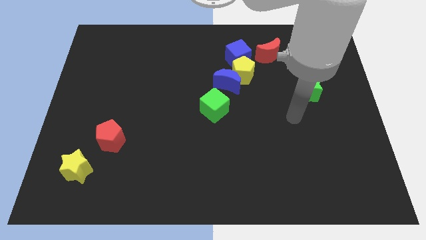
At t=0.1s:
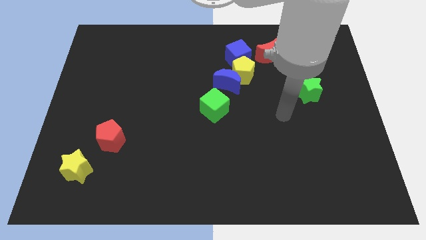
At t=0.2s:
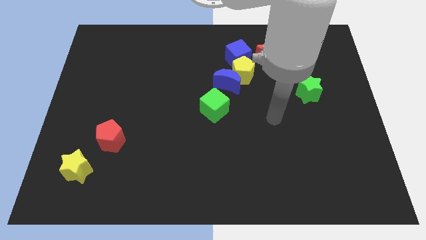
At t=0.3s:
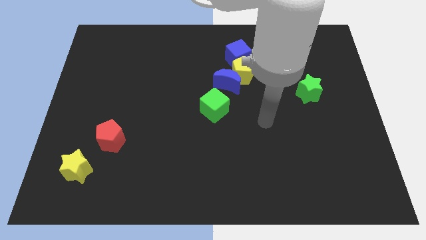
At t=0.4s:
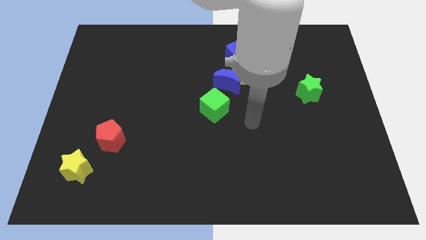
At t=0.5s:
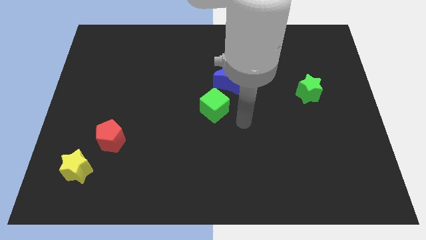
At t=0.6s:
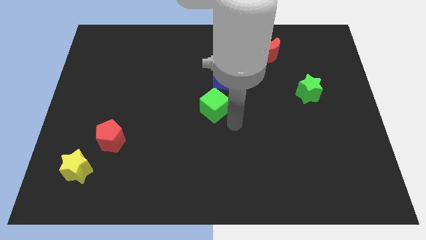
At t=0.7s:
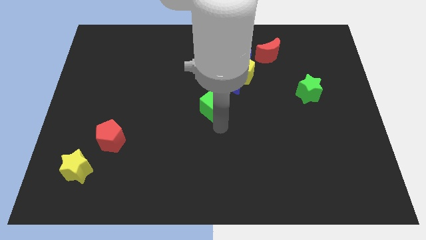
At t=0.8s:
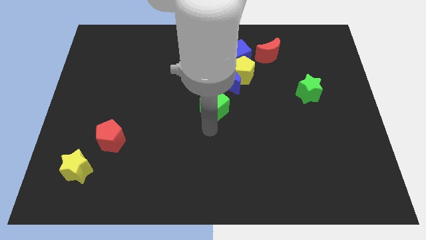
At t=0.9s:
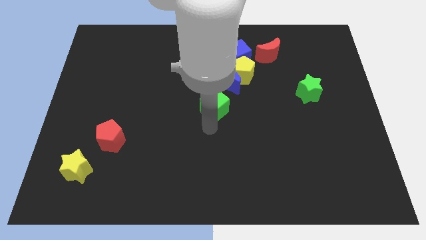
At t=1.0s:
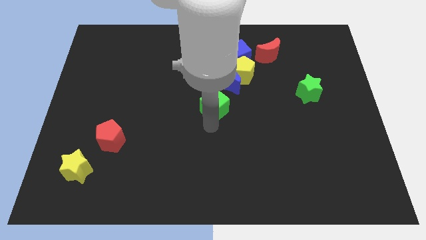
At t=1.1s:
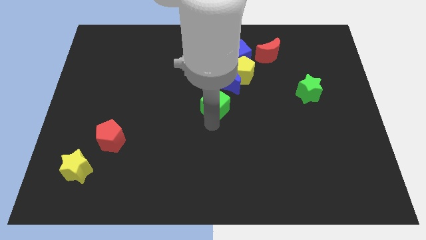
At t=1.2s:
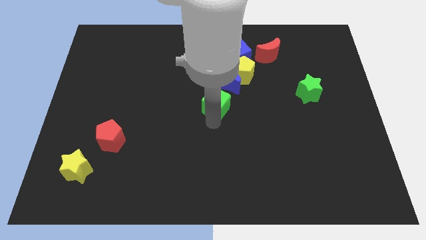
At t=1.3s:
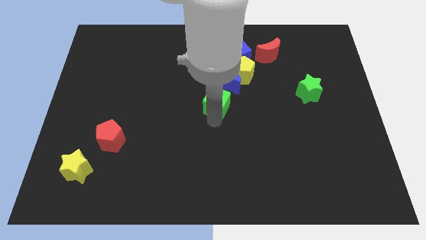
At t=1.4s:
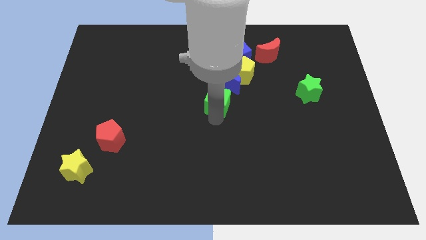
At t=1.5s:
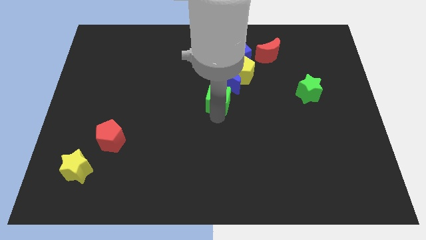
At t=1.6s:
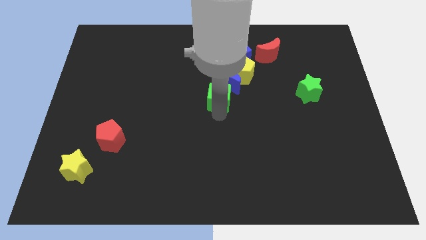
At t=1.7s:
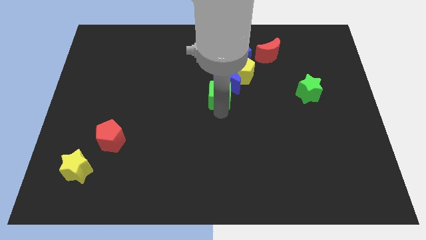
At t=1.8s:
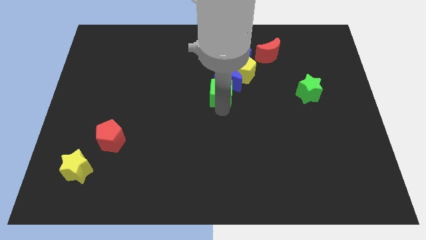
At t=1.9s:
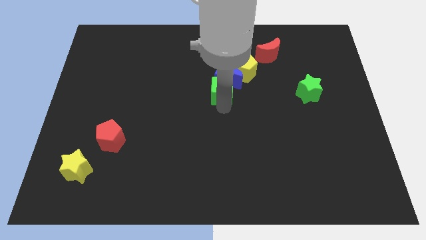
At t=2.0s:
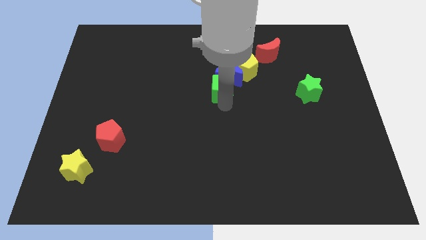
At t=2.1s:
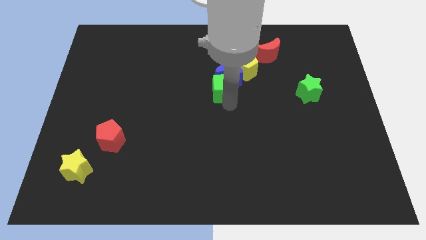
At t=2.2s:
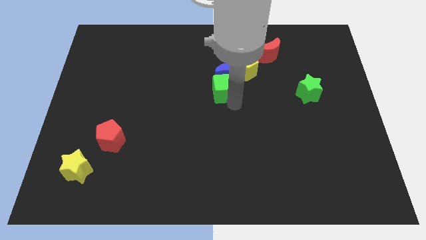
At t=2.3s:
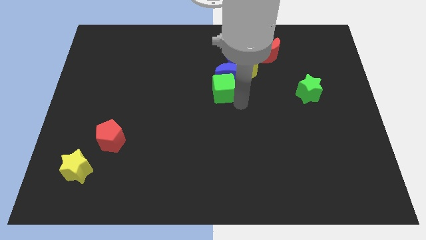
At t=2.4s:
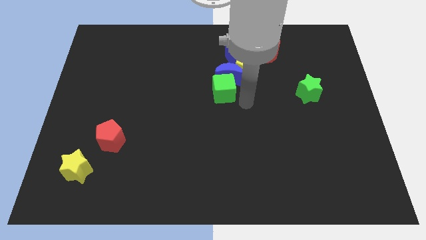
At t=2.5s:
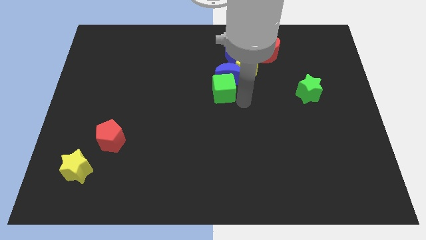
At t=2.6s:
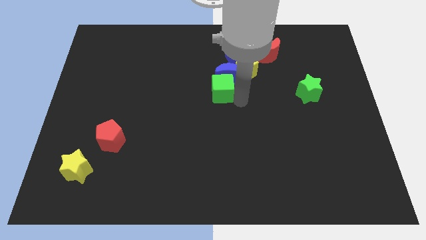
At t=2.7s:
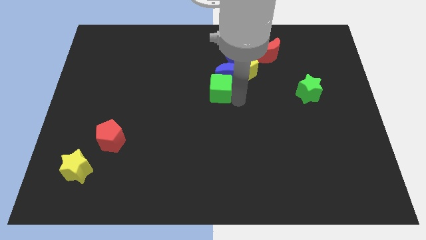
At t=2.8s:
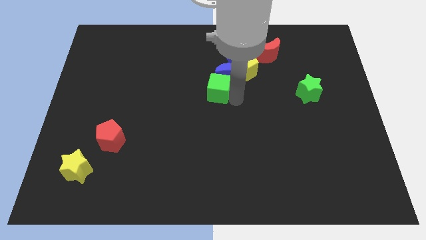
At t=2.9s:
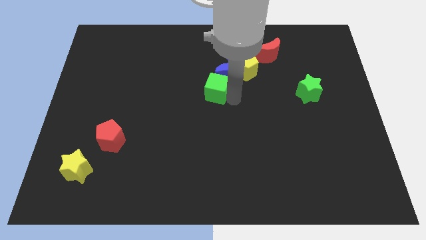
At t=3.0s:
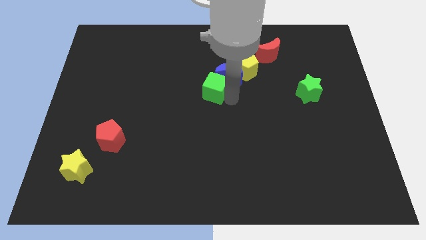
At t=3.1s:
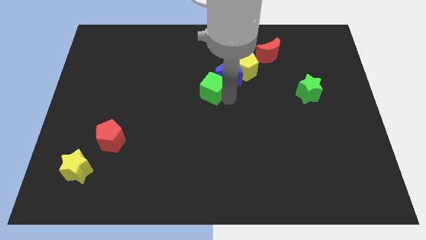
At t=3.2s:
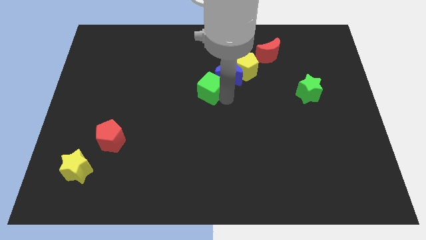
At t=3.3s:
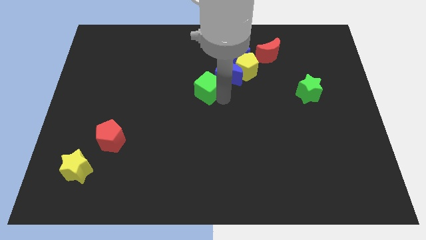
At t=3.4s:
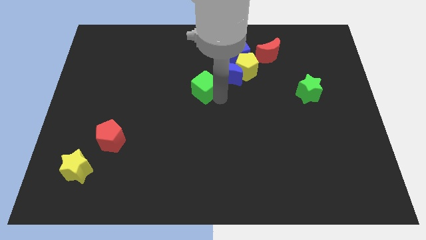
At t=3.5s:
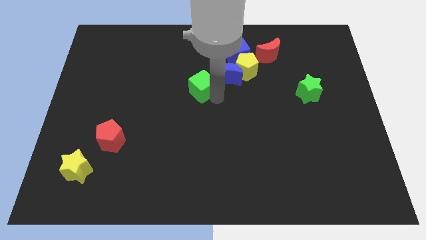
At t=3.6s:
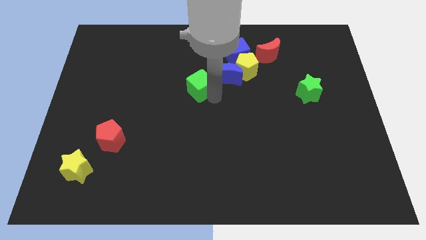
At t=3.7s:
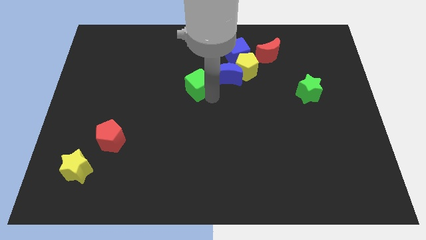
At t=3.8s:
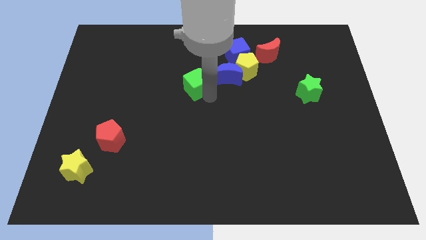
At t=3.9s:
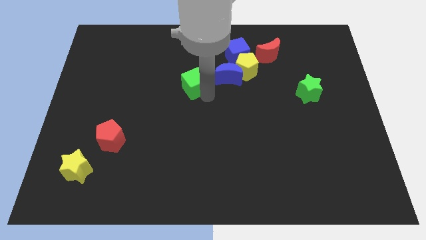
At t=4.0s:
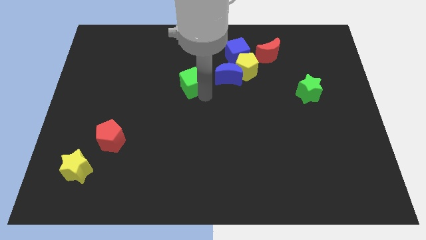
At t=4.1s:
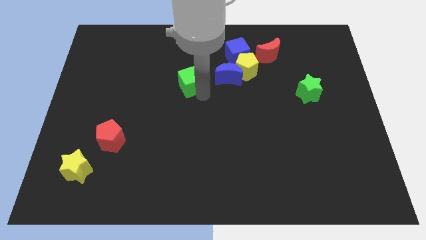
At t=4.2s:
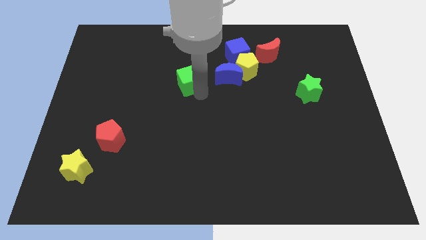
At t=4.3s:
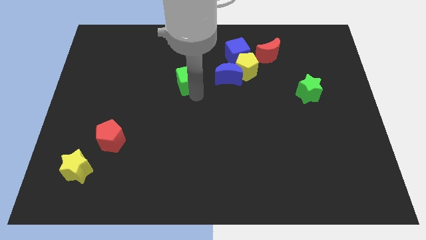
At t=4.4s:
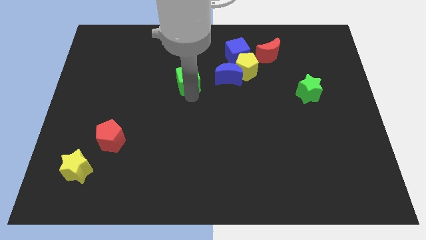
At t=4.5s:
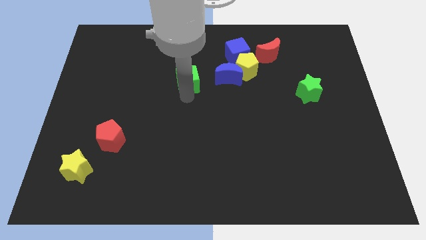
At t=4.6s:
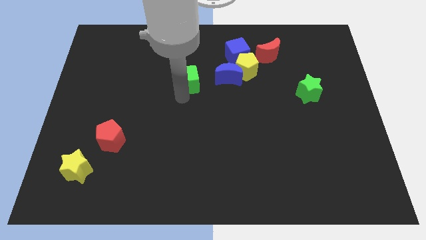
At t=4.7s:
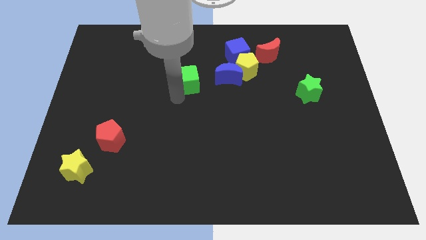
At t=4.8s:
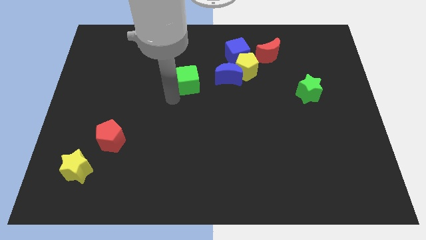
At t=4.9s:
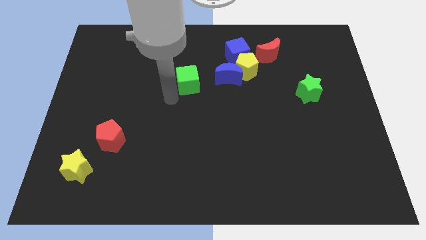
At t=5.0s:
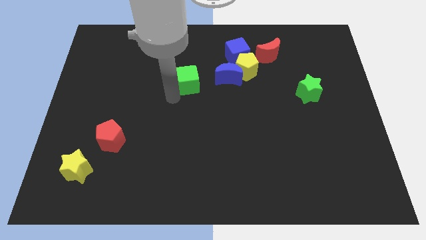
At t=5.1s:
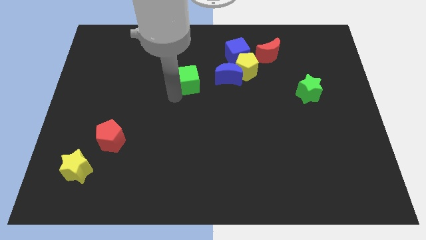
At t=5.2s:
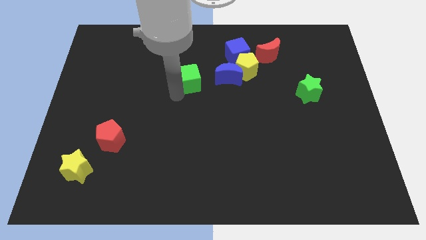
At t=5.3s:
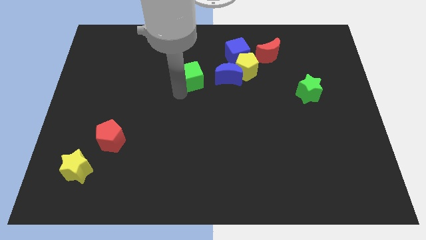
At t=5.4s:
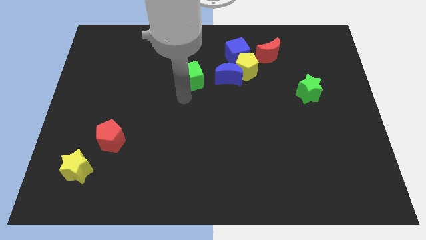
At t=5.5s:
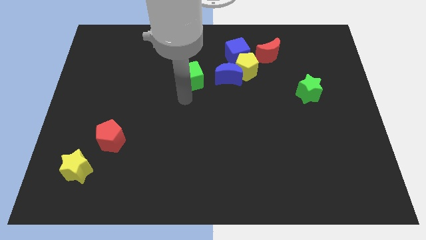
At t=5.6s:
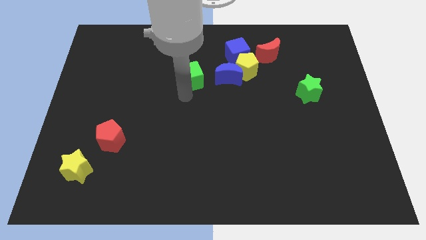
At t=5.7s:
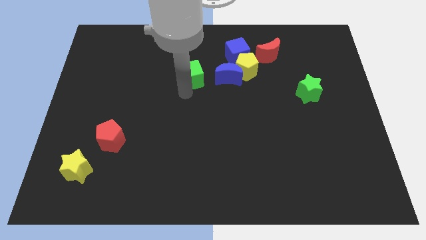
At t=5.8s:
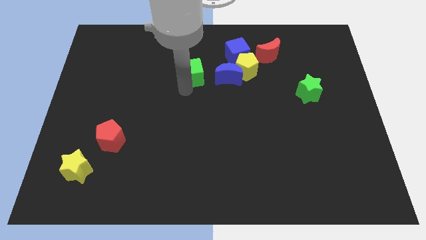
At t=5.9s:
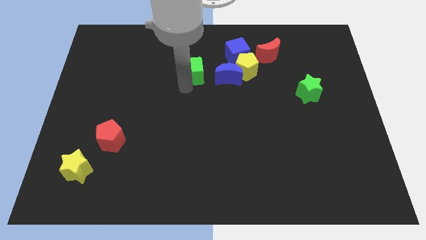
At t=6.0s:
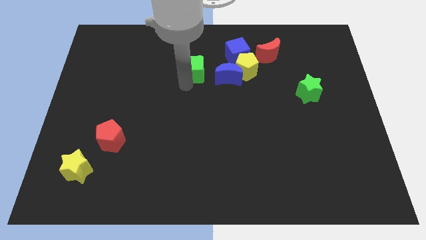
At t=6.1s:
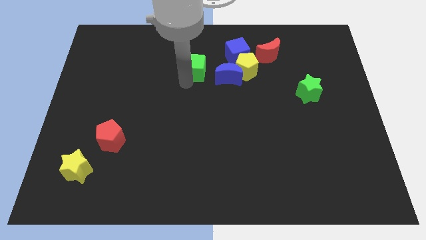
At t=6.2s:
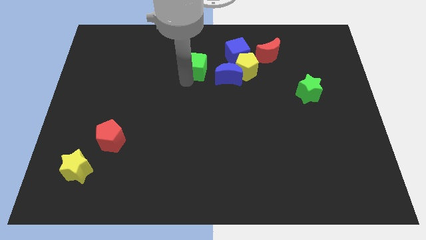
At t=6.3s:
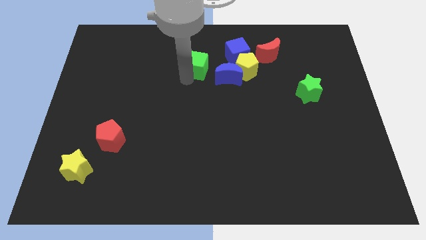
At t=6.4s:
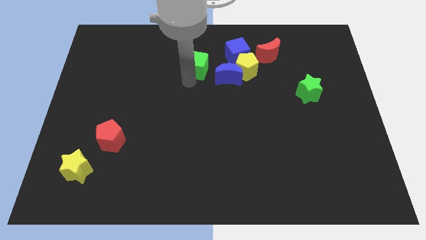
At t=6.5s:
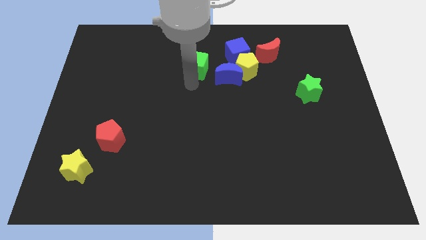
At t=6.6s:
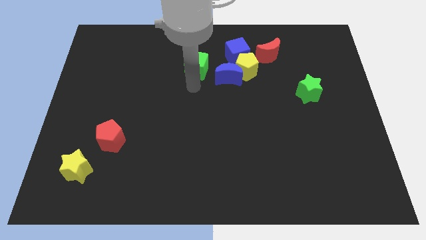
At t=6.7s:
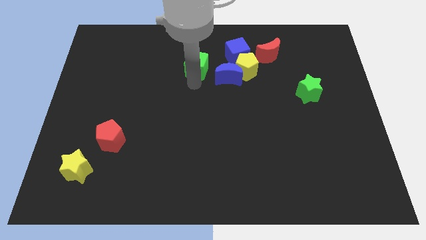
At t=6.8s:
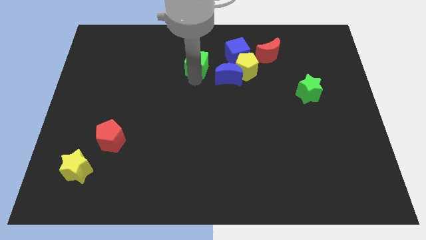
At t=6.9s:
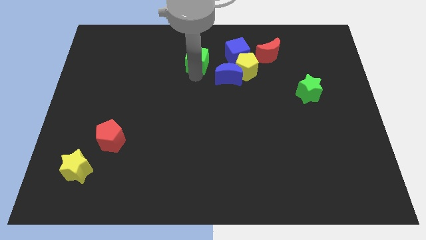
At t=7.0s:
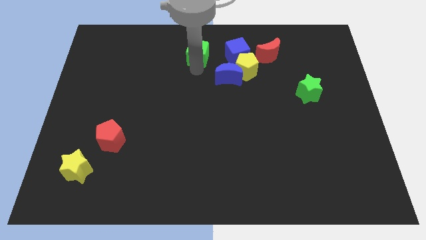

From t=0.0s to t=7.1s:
push the green cube to the top

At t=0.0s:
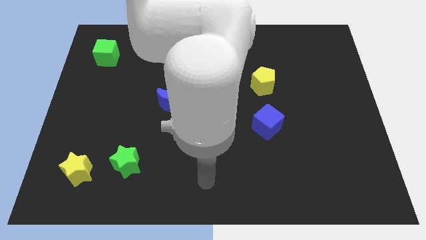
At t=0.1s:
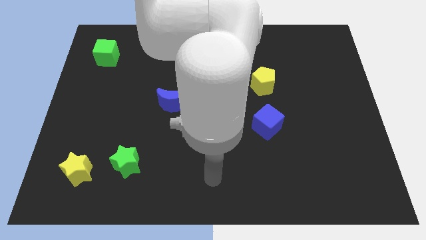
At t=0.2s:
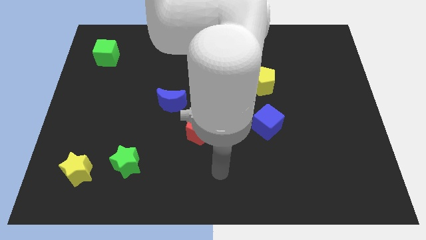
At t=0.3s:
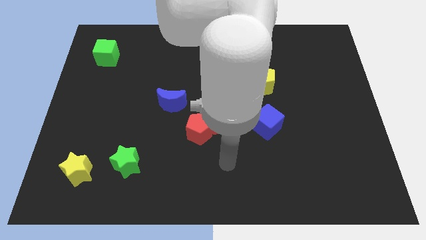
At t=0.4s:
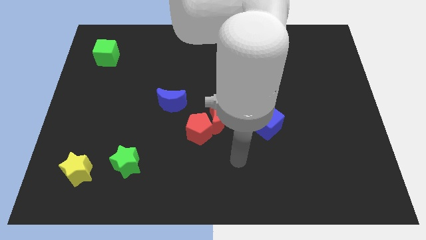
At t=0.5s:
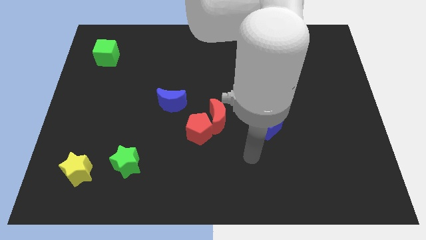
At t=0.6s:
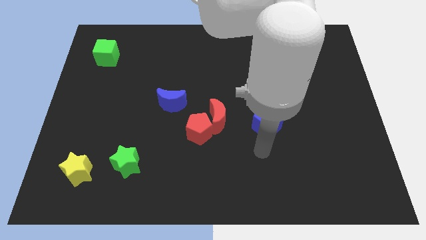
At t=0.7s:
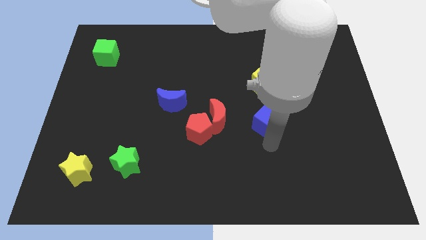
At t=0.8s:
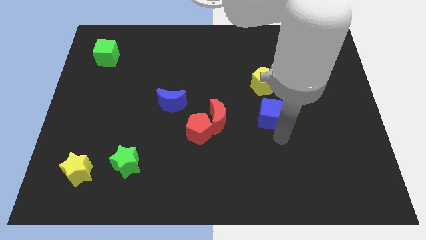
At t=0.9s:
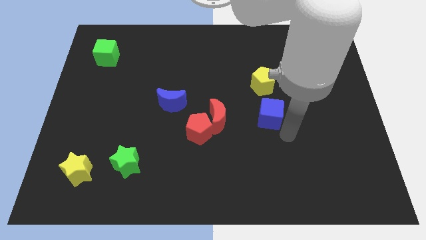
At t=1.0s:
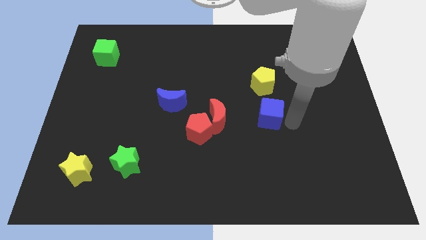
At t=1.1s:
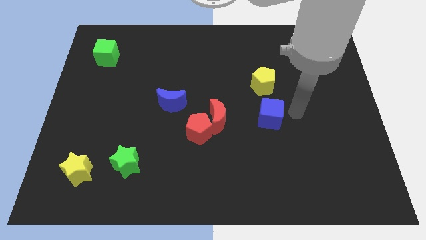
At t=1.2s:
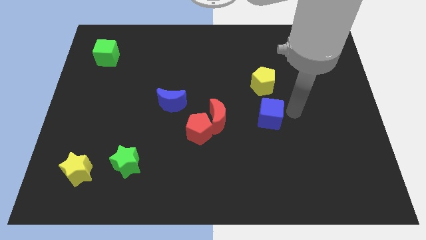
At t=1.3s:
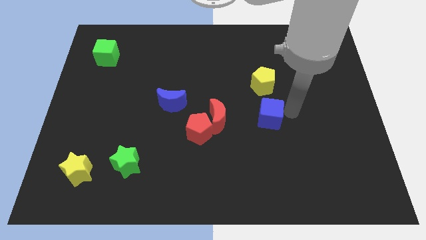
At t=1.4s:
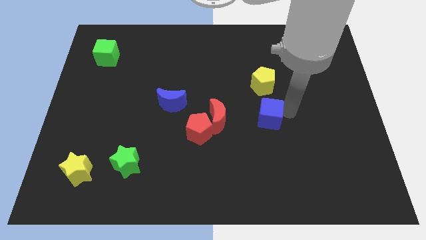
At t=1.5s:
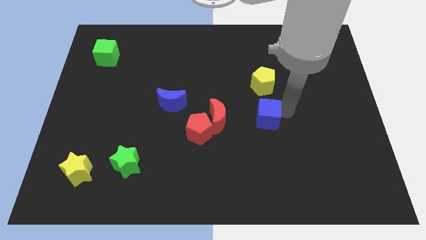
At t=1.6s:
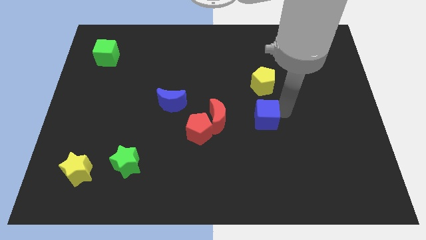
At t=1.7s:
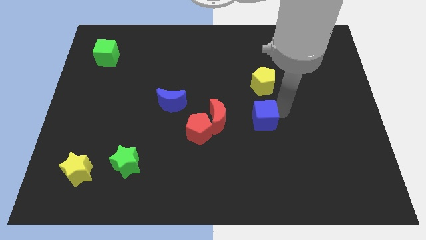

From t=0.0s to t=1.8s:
push the blue cube to the center
